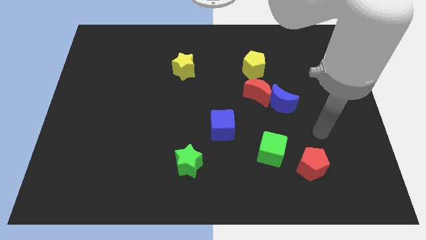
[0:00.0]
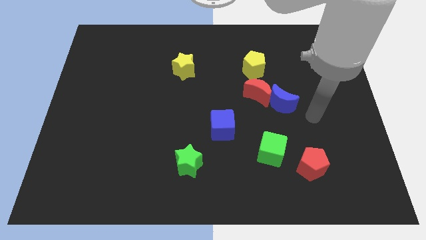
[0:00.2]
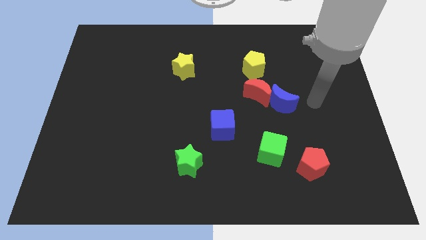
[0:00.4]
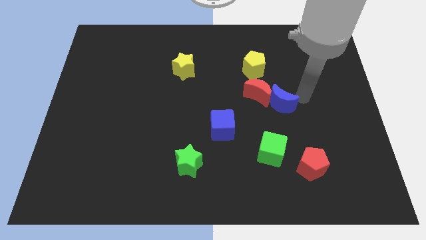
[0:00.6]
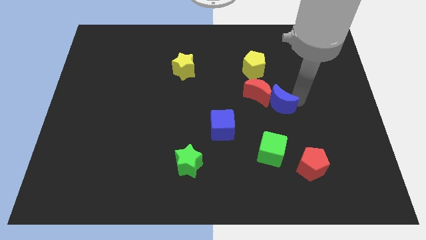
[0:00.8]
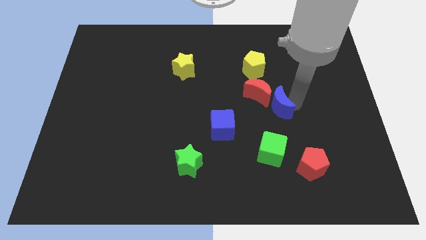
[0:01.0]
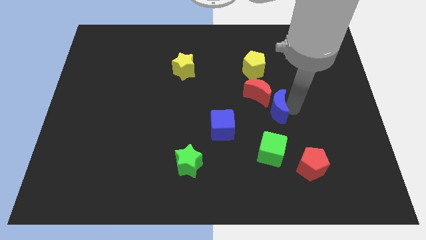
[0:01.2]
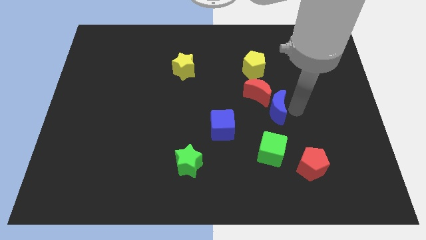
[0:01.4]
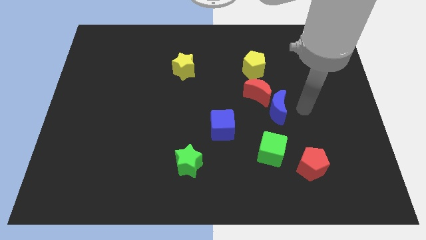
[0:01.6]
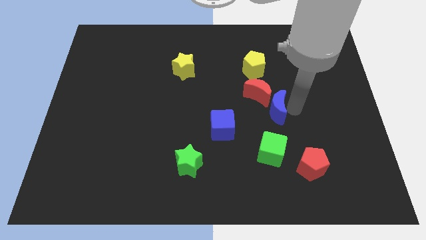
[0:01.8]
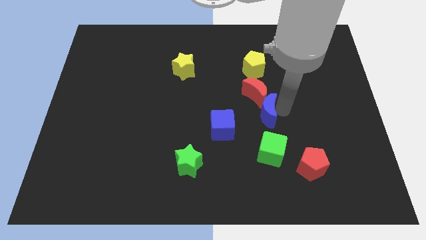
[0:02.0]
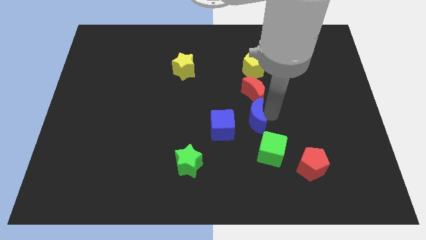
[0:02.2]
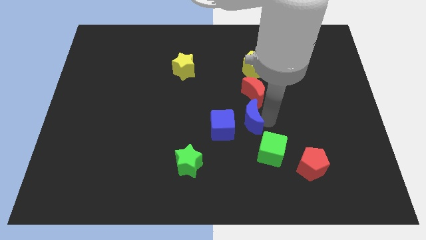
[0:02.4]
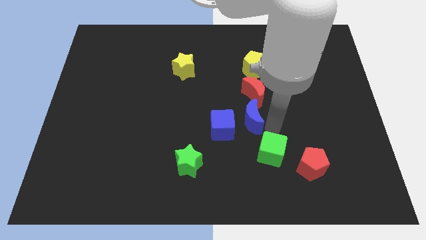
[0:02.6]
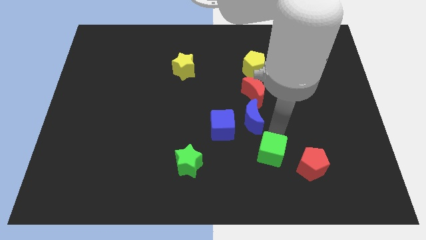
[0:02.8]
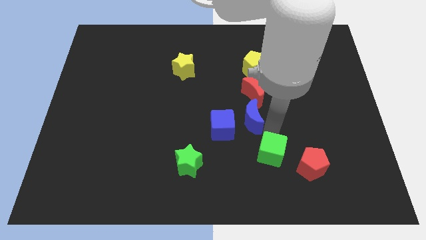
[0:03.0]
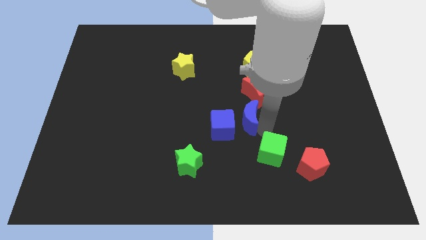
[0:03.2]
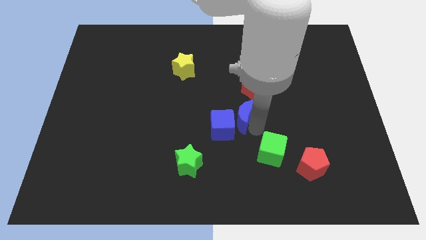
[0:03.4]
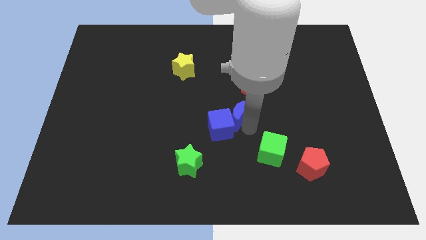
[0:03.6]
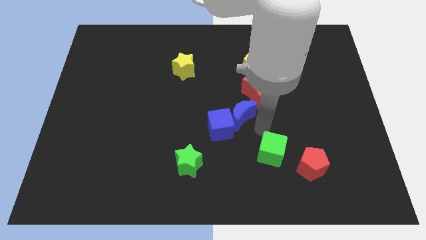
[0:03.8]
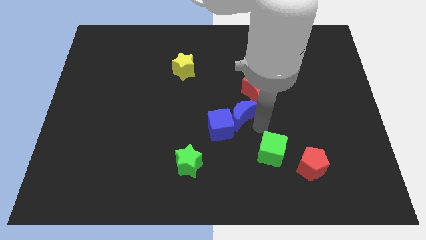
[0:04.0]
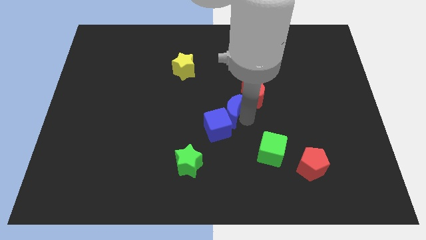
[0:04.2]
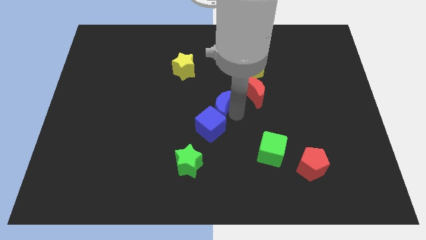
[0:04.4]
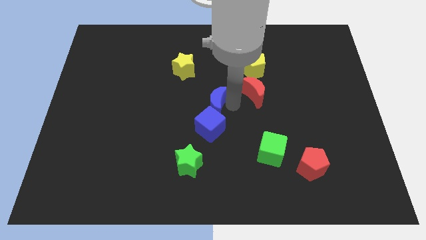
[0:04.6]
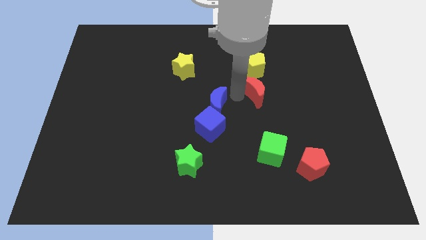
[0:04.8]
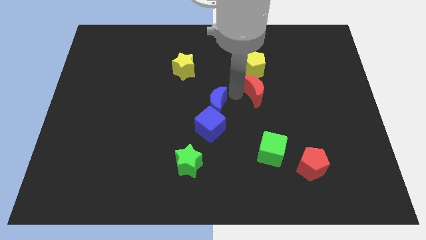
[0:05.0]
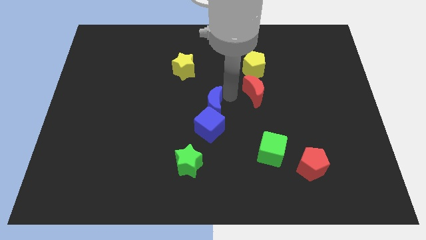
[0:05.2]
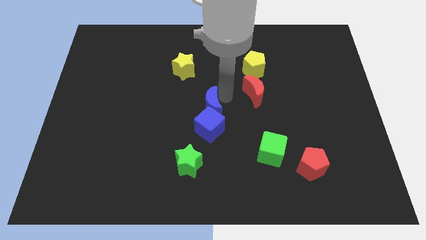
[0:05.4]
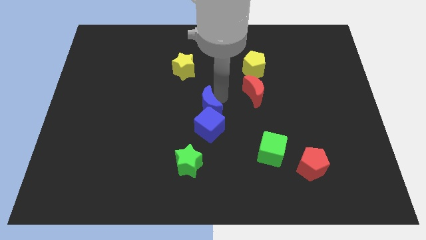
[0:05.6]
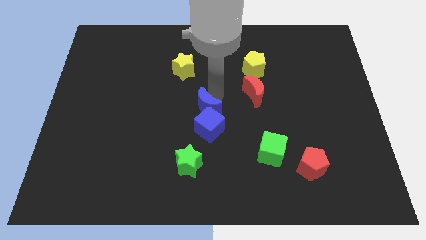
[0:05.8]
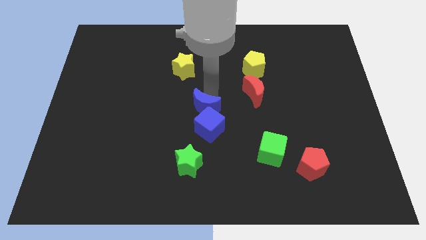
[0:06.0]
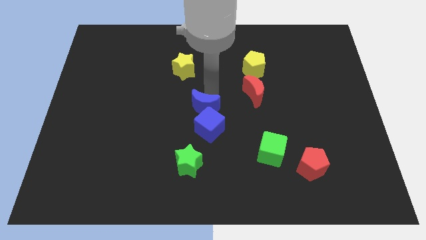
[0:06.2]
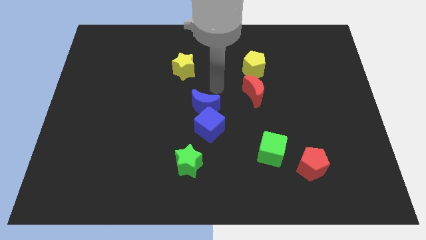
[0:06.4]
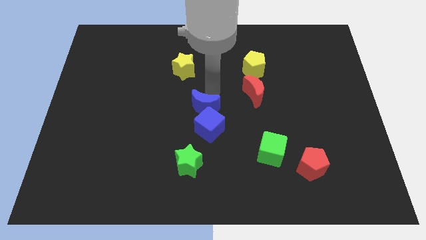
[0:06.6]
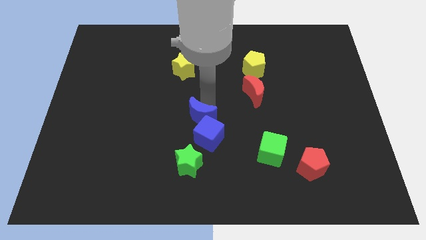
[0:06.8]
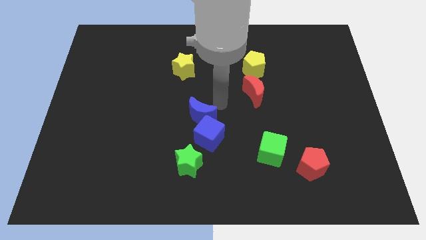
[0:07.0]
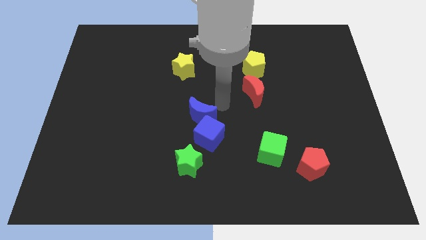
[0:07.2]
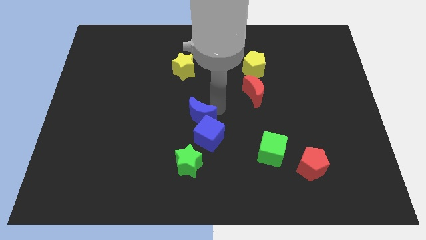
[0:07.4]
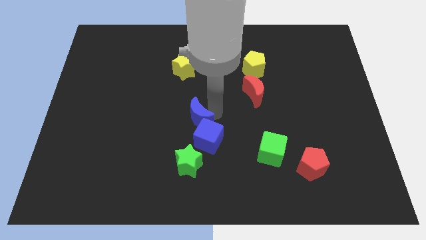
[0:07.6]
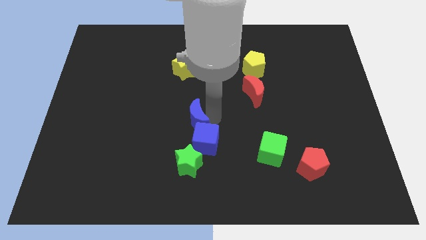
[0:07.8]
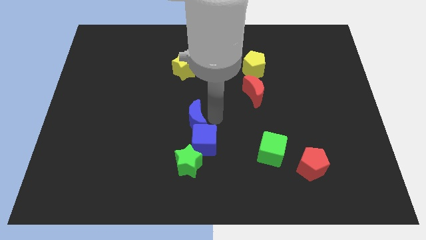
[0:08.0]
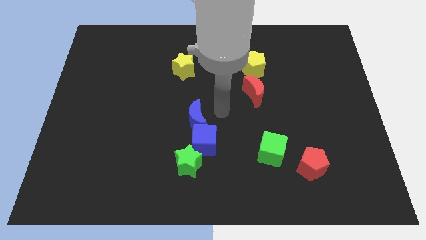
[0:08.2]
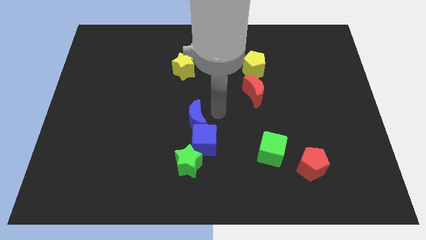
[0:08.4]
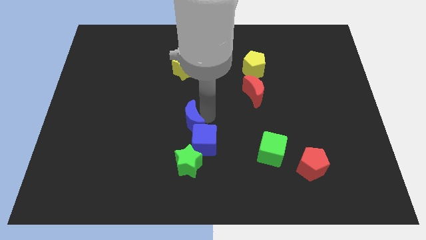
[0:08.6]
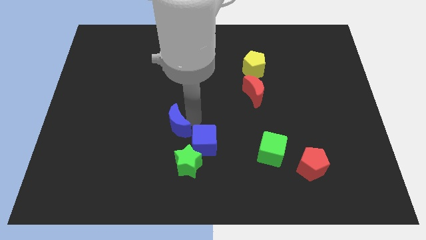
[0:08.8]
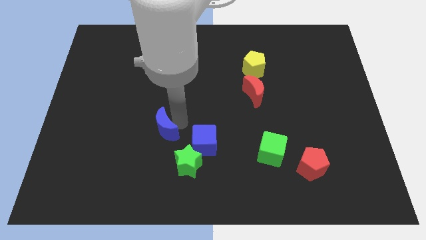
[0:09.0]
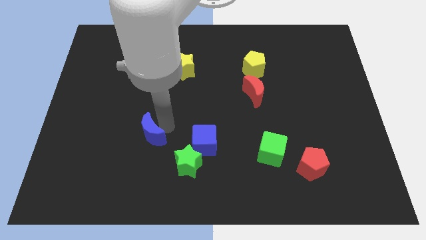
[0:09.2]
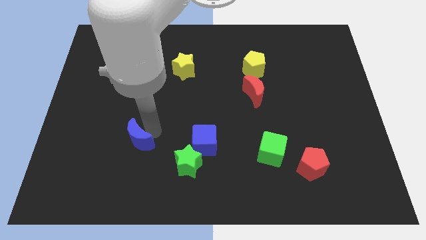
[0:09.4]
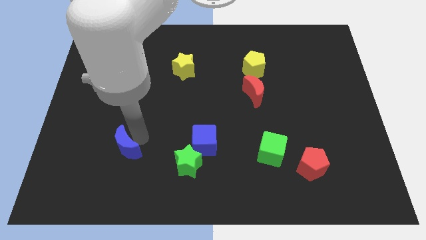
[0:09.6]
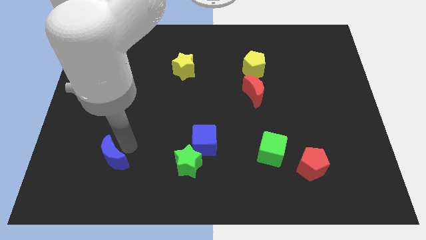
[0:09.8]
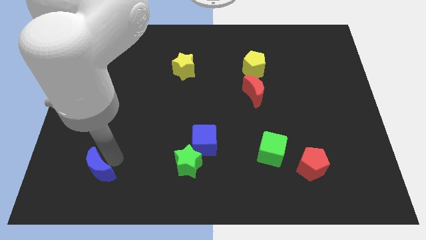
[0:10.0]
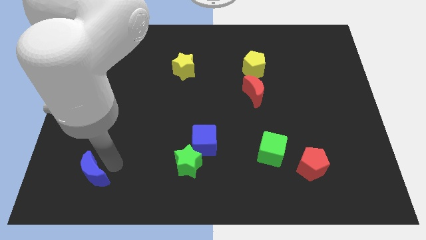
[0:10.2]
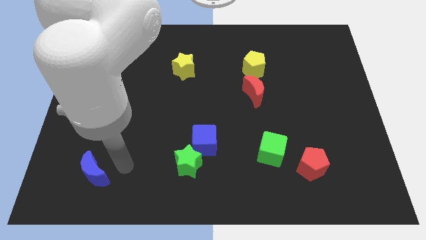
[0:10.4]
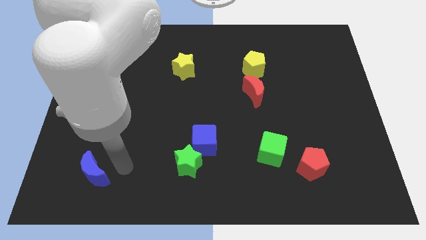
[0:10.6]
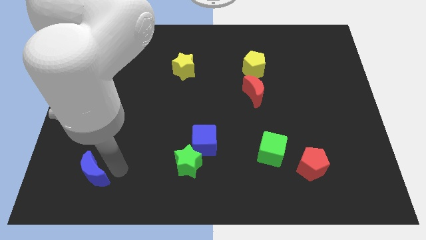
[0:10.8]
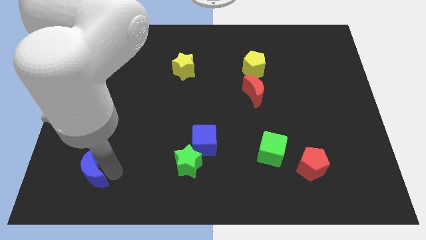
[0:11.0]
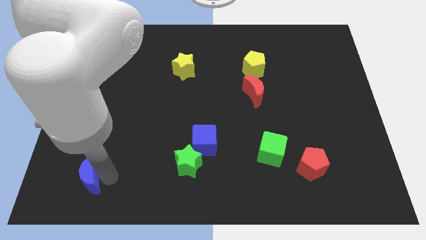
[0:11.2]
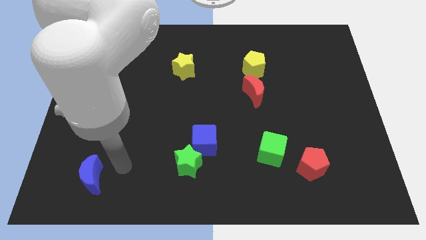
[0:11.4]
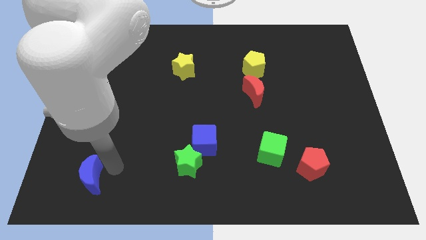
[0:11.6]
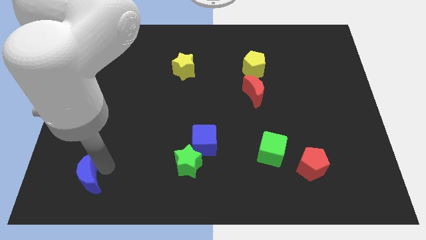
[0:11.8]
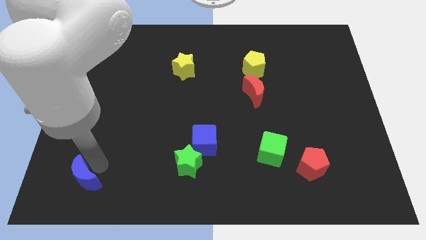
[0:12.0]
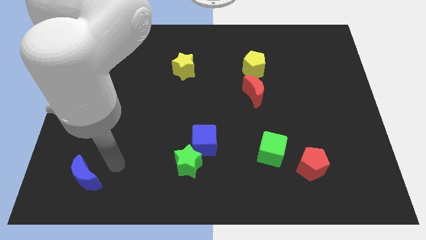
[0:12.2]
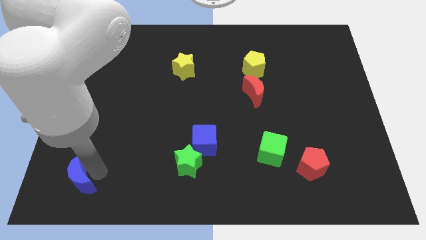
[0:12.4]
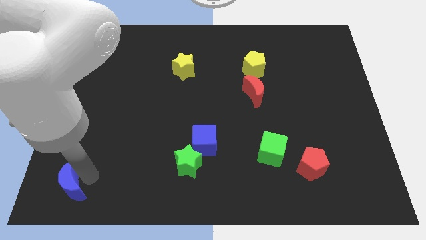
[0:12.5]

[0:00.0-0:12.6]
move the blue moon to the lower left corner
